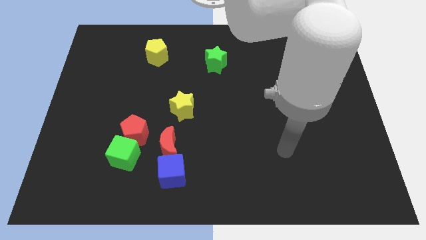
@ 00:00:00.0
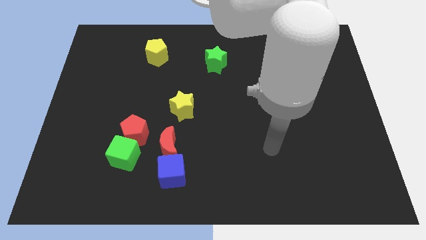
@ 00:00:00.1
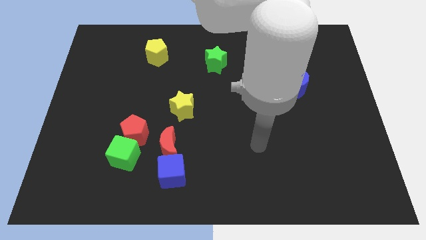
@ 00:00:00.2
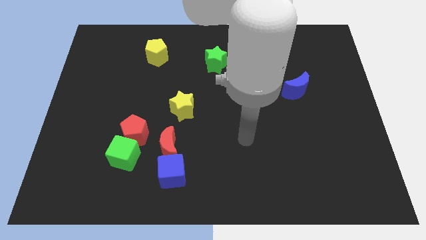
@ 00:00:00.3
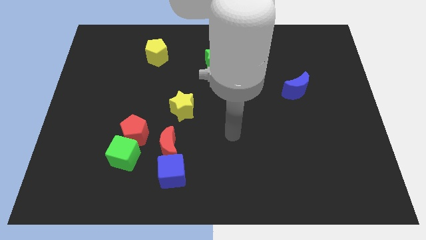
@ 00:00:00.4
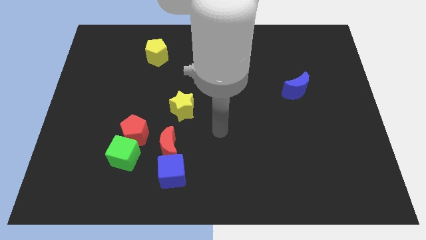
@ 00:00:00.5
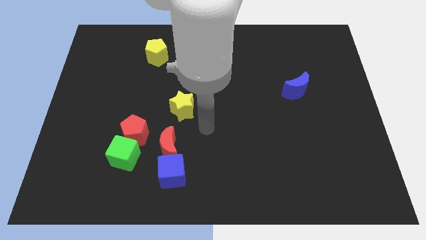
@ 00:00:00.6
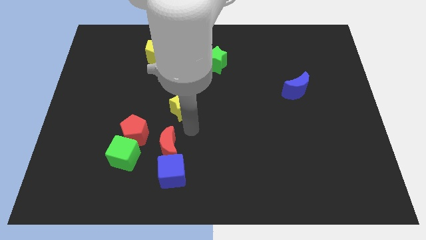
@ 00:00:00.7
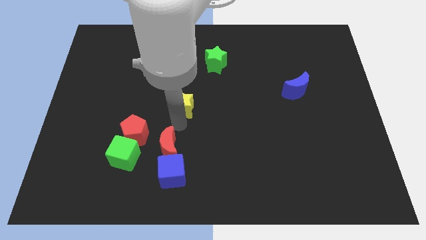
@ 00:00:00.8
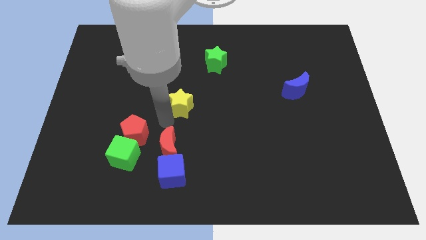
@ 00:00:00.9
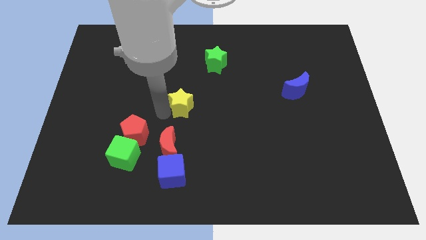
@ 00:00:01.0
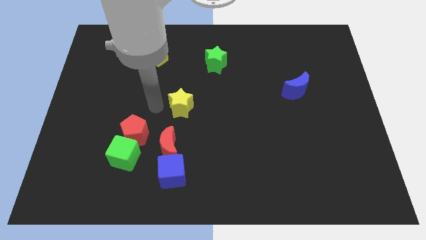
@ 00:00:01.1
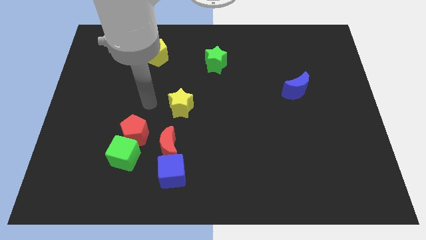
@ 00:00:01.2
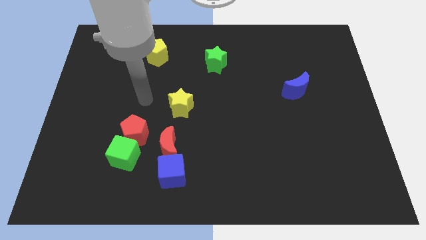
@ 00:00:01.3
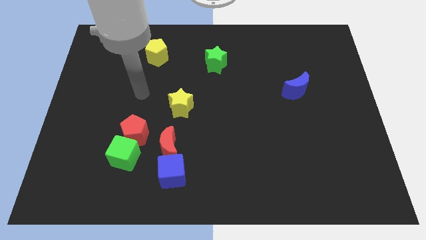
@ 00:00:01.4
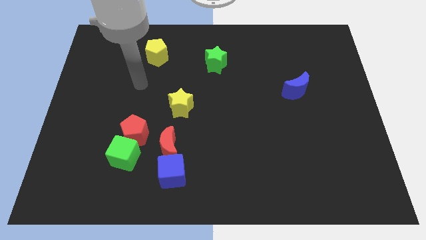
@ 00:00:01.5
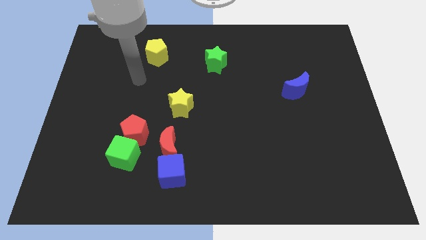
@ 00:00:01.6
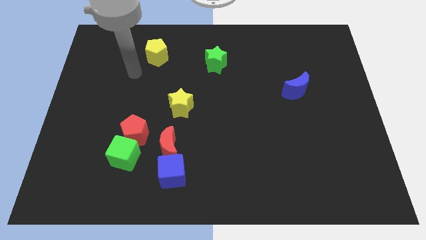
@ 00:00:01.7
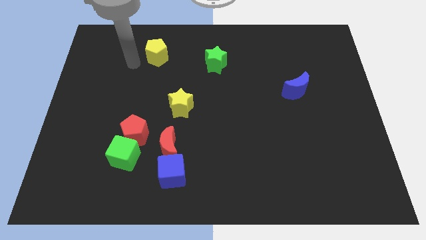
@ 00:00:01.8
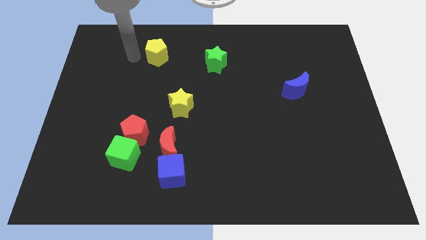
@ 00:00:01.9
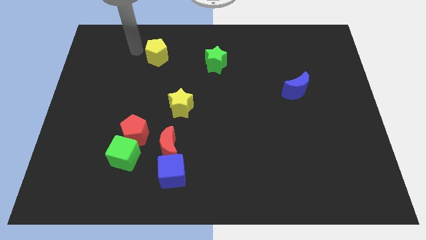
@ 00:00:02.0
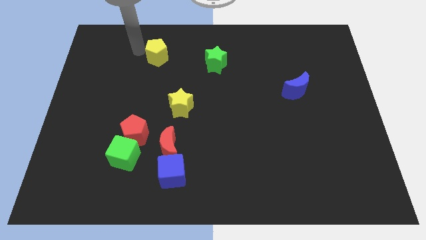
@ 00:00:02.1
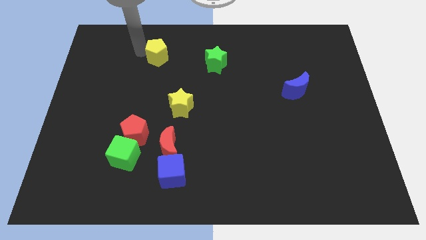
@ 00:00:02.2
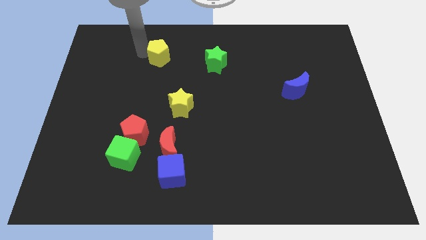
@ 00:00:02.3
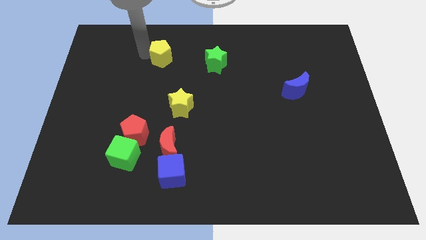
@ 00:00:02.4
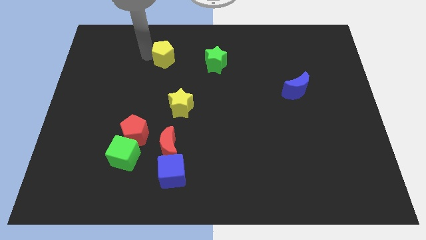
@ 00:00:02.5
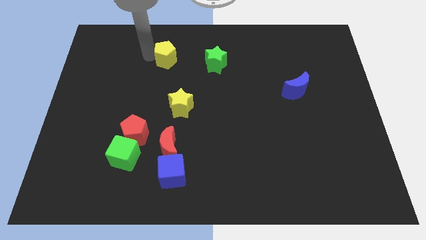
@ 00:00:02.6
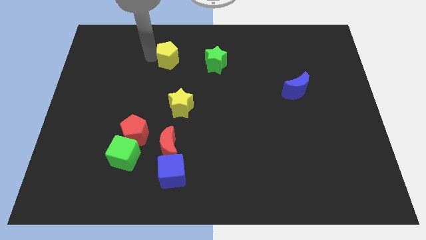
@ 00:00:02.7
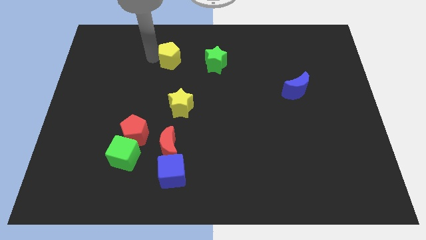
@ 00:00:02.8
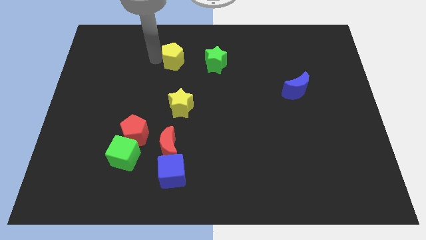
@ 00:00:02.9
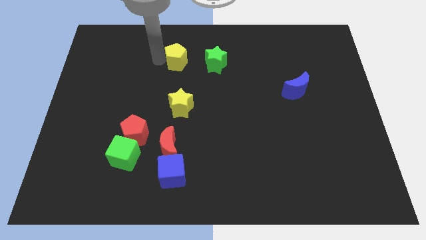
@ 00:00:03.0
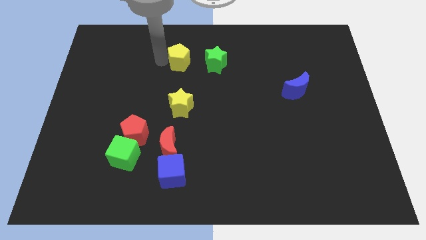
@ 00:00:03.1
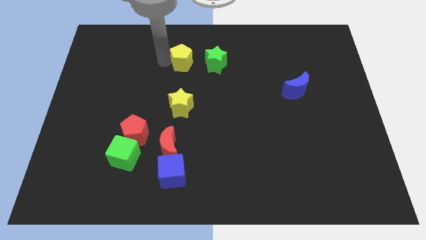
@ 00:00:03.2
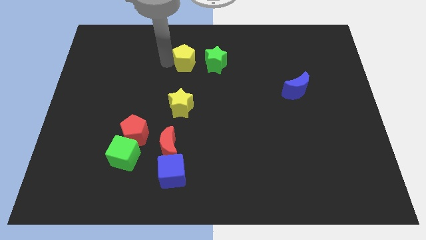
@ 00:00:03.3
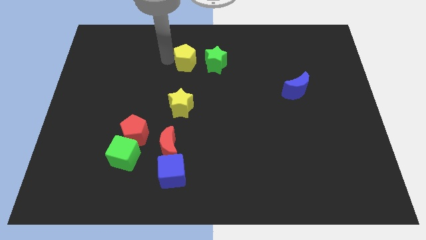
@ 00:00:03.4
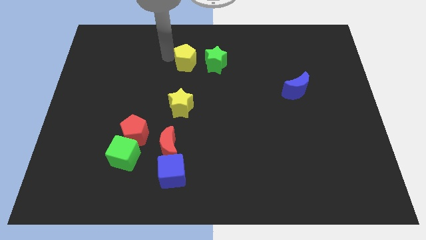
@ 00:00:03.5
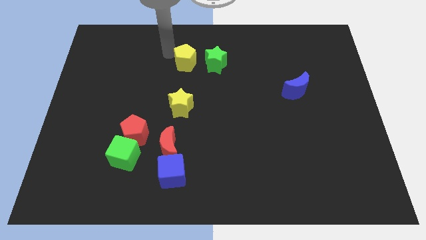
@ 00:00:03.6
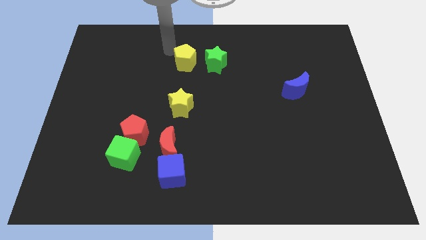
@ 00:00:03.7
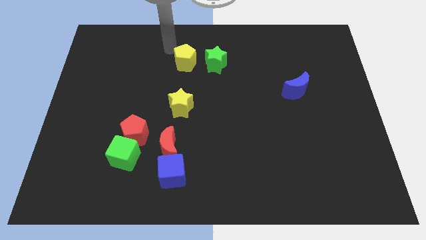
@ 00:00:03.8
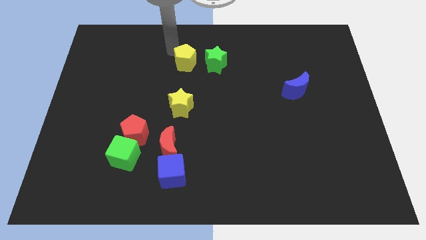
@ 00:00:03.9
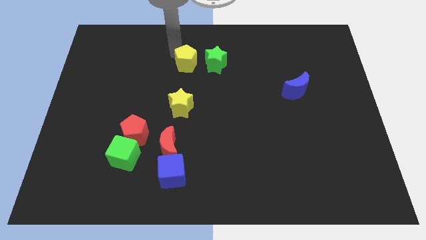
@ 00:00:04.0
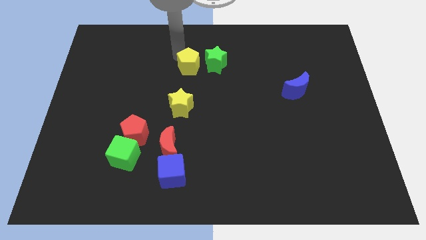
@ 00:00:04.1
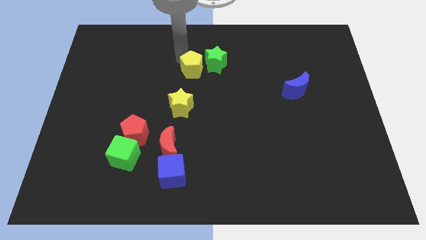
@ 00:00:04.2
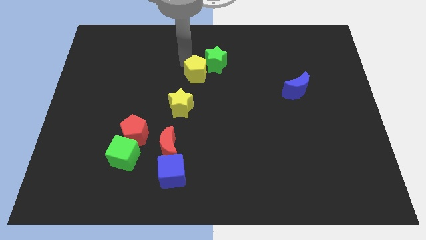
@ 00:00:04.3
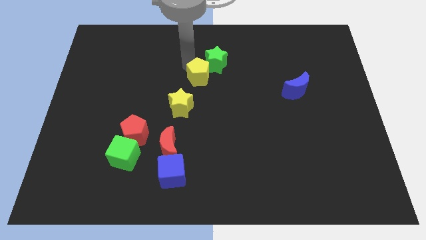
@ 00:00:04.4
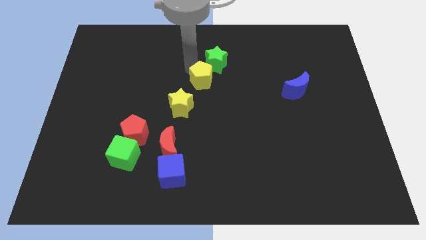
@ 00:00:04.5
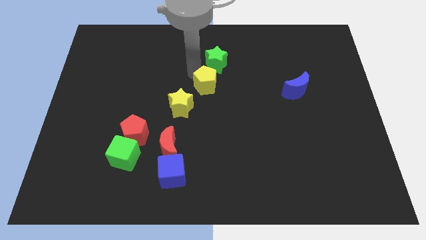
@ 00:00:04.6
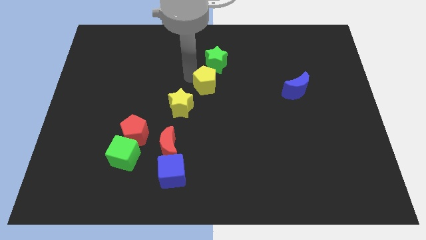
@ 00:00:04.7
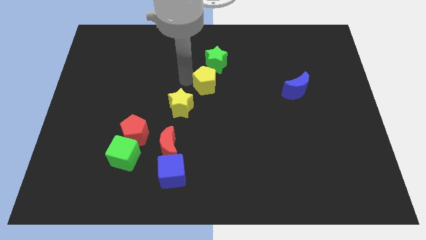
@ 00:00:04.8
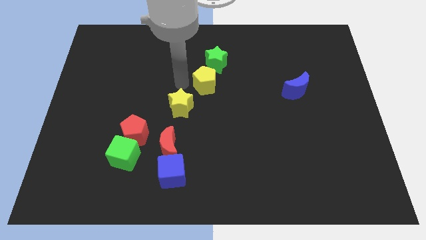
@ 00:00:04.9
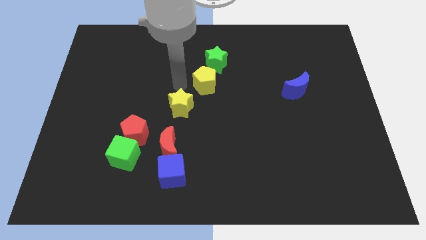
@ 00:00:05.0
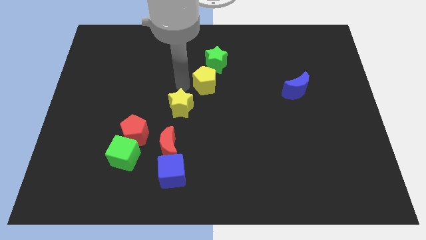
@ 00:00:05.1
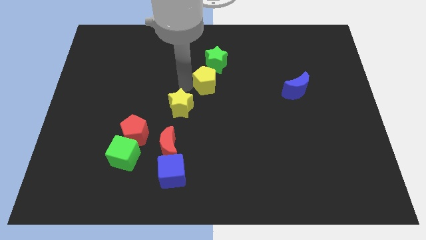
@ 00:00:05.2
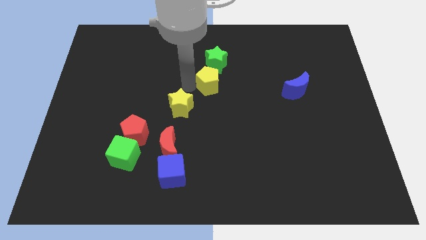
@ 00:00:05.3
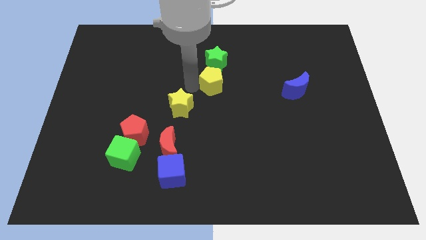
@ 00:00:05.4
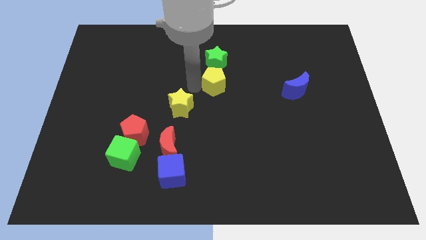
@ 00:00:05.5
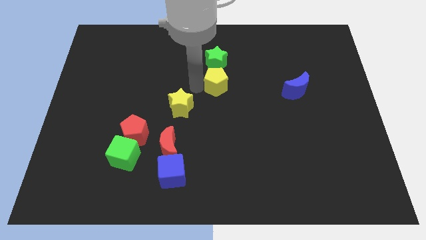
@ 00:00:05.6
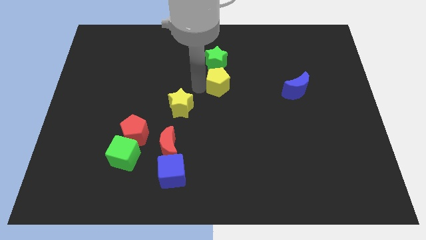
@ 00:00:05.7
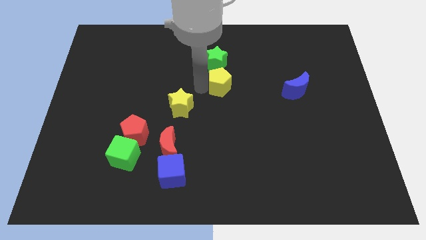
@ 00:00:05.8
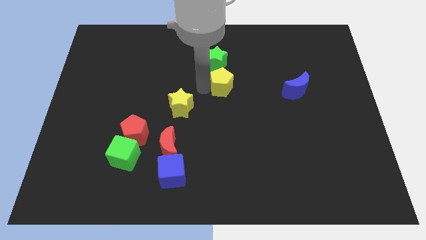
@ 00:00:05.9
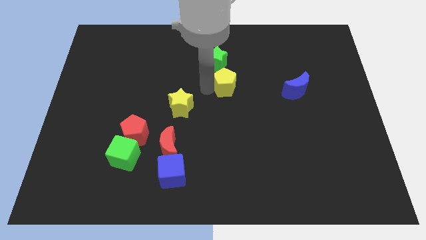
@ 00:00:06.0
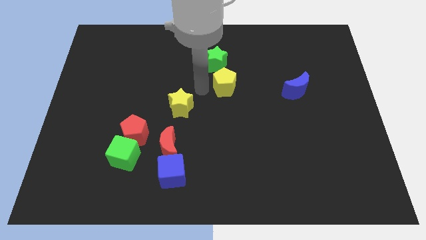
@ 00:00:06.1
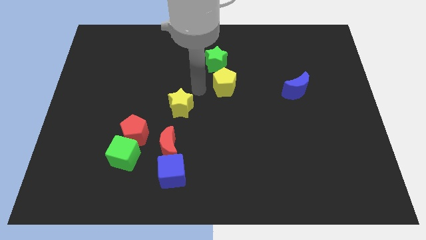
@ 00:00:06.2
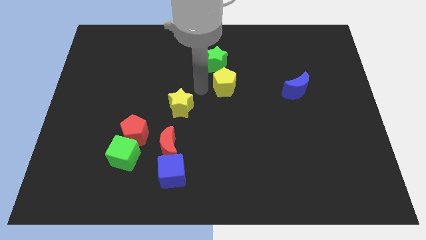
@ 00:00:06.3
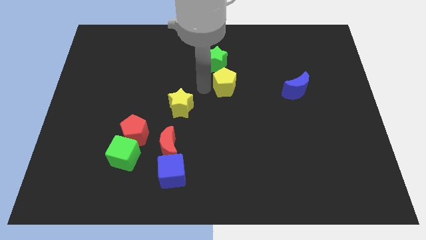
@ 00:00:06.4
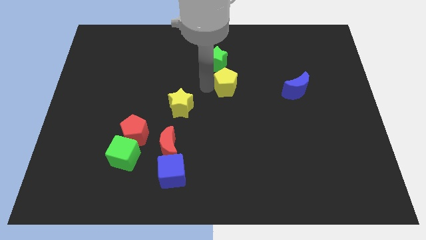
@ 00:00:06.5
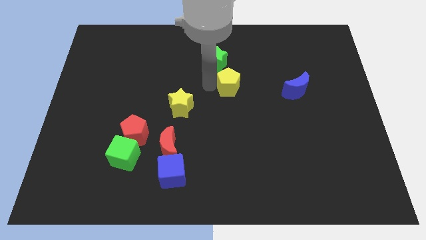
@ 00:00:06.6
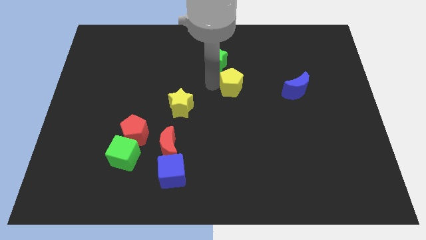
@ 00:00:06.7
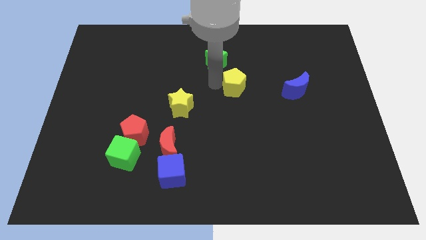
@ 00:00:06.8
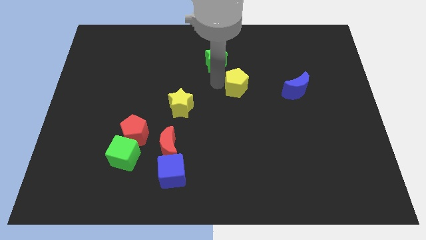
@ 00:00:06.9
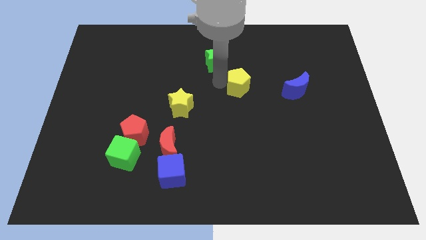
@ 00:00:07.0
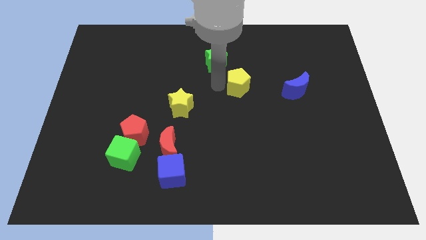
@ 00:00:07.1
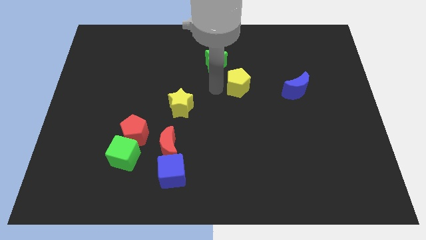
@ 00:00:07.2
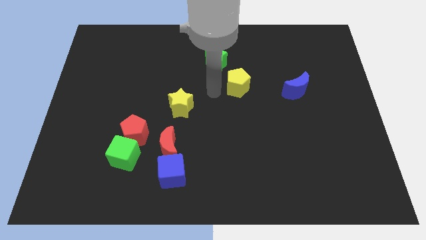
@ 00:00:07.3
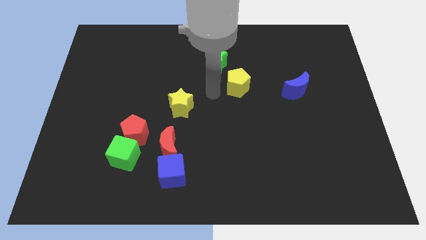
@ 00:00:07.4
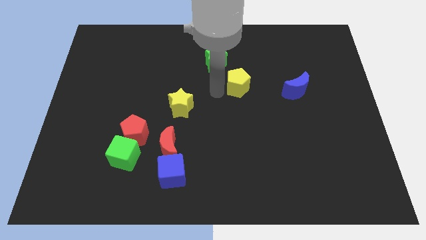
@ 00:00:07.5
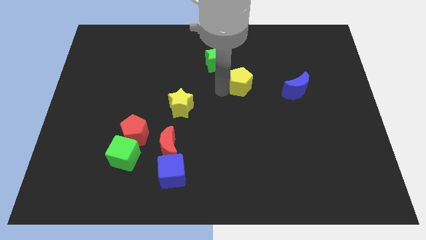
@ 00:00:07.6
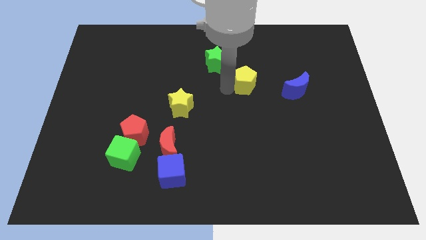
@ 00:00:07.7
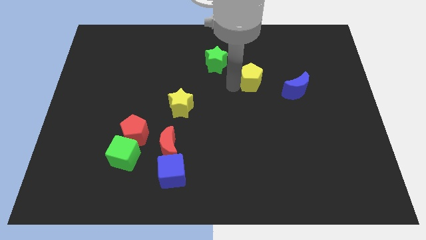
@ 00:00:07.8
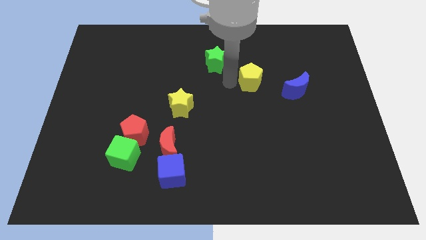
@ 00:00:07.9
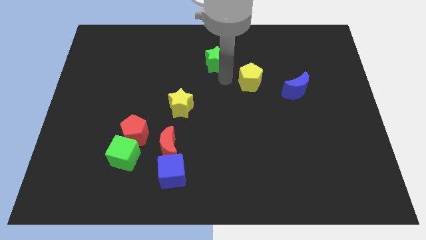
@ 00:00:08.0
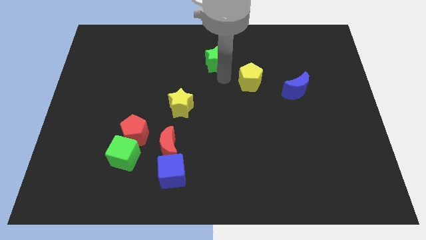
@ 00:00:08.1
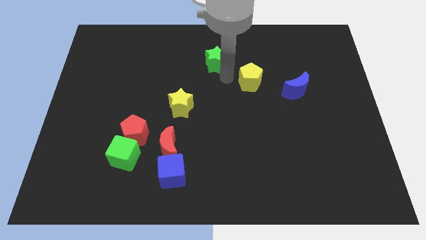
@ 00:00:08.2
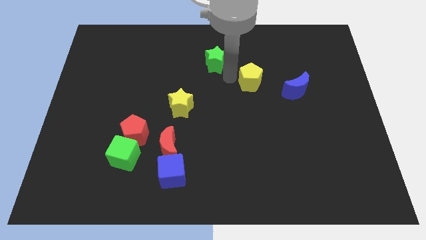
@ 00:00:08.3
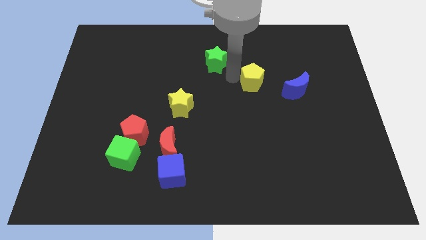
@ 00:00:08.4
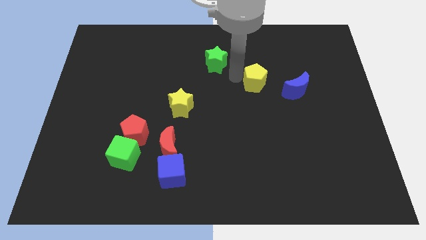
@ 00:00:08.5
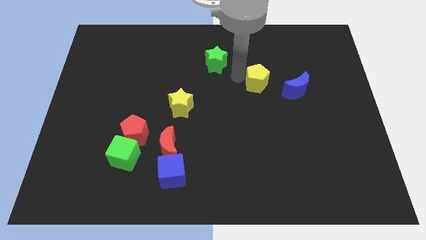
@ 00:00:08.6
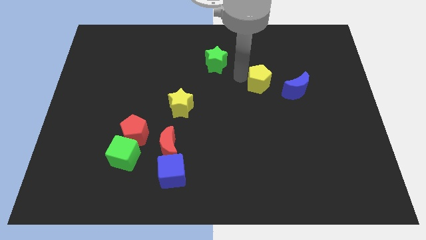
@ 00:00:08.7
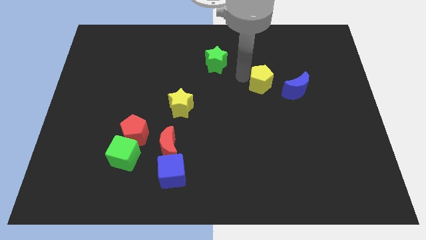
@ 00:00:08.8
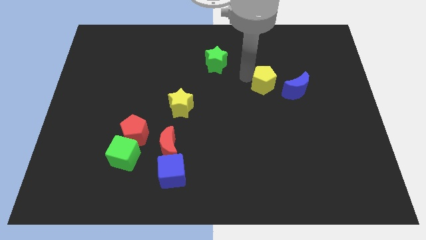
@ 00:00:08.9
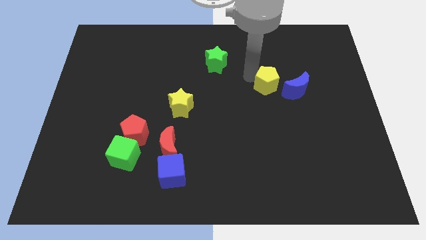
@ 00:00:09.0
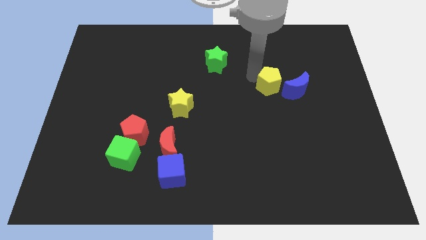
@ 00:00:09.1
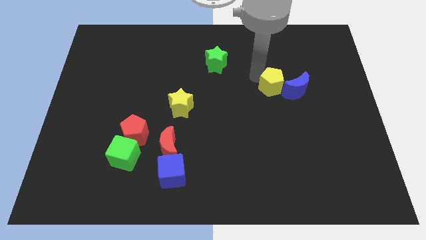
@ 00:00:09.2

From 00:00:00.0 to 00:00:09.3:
slide the yellow pentagon close to the blue moon
